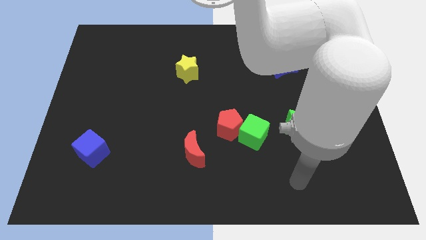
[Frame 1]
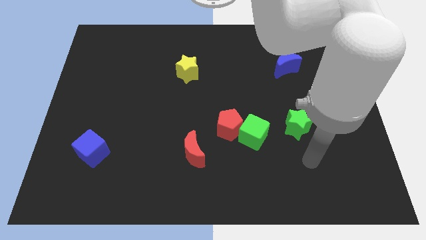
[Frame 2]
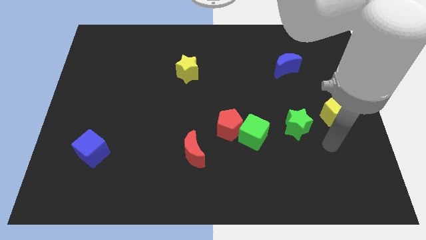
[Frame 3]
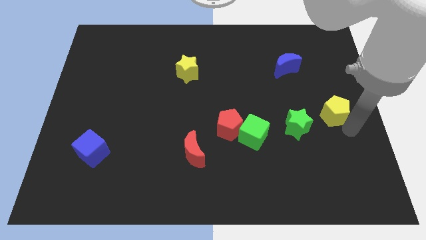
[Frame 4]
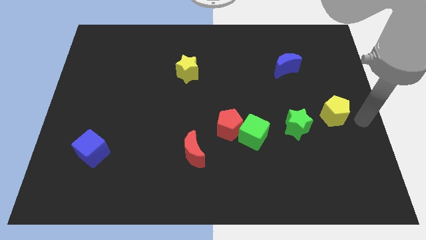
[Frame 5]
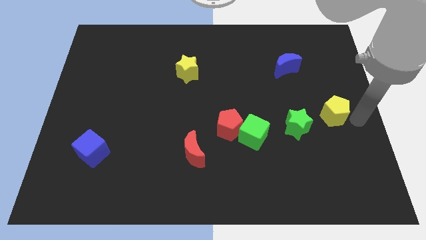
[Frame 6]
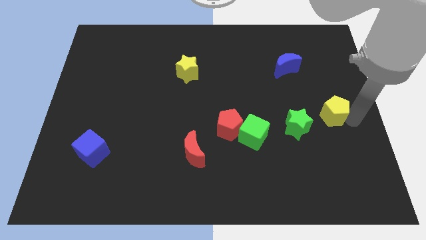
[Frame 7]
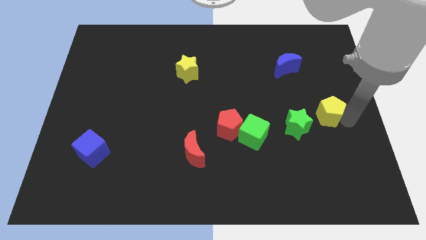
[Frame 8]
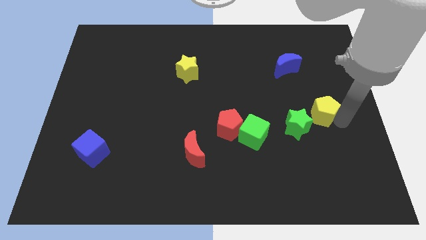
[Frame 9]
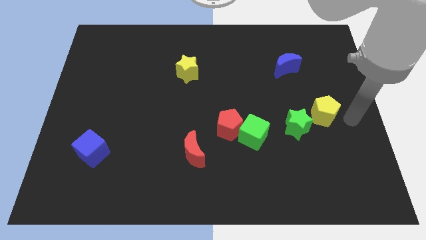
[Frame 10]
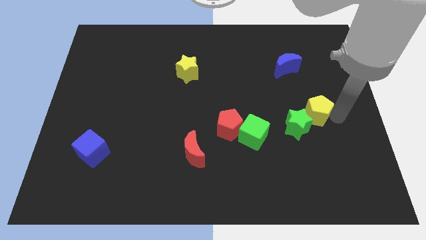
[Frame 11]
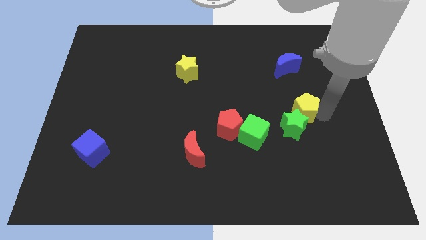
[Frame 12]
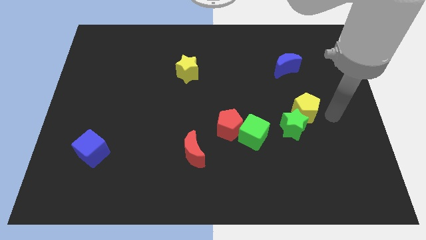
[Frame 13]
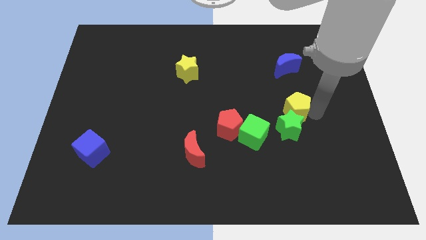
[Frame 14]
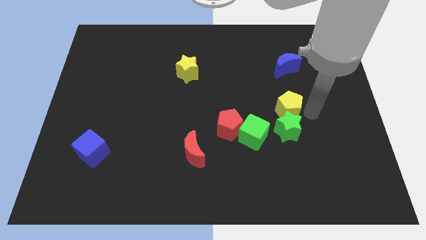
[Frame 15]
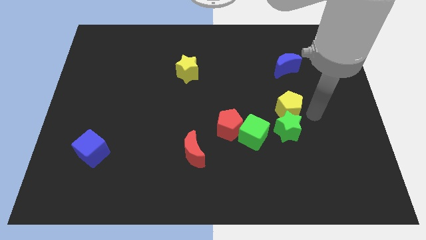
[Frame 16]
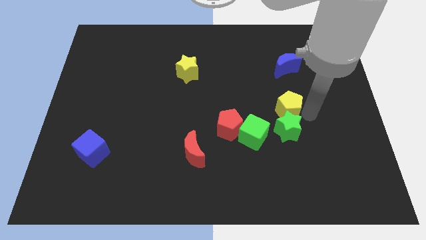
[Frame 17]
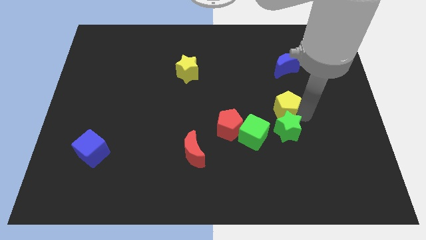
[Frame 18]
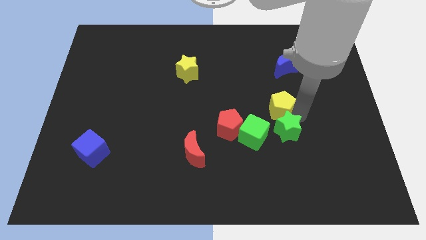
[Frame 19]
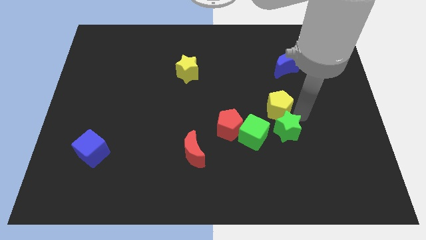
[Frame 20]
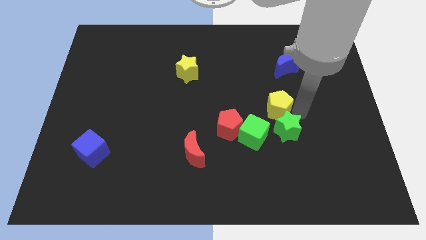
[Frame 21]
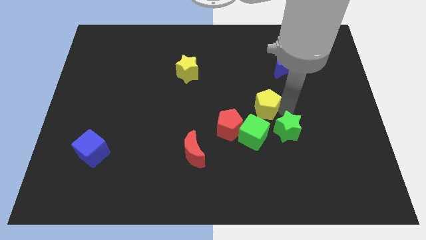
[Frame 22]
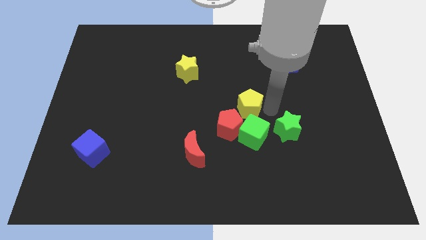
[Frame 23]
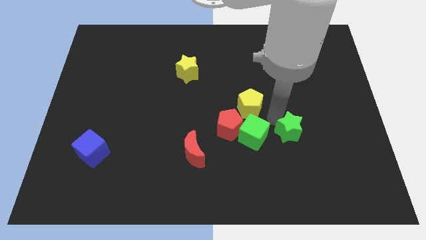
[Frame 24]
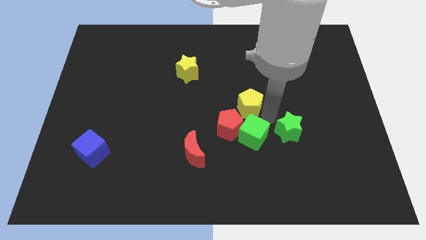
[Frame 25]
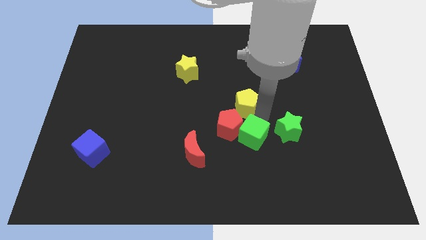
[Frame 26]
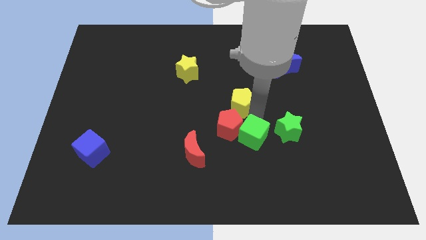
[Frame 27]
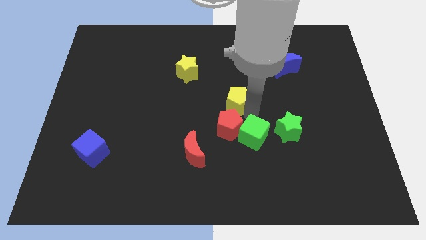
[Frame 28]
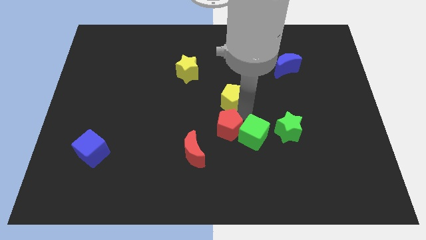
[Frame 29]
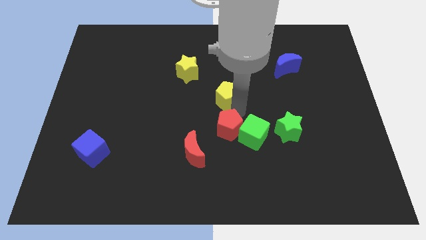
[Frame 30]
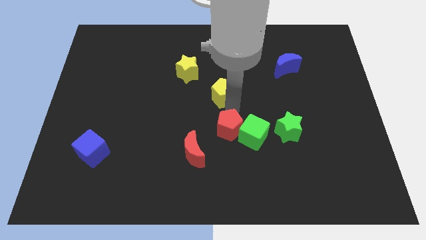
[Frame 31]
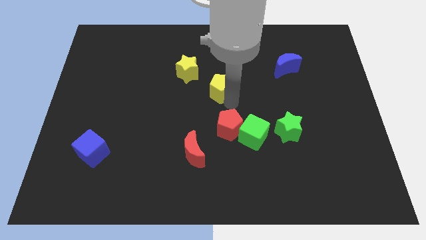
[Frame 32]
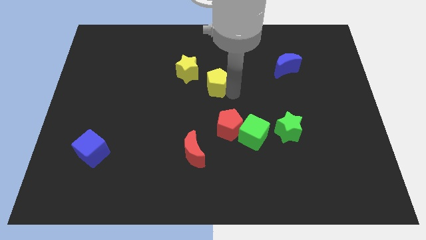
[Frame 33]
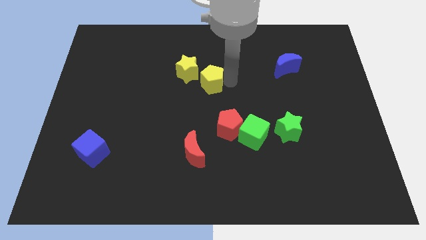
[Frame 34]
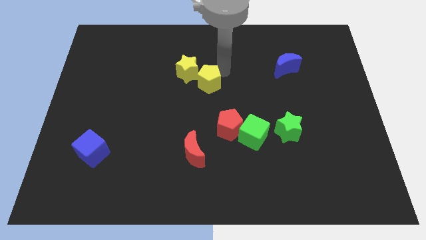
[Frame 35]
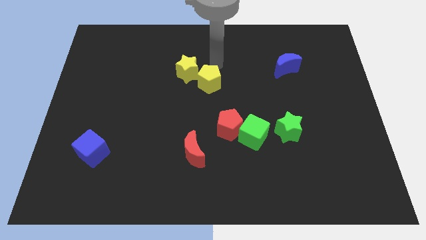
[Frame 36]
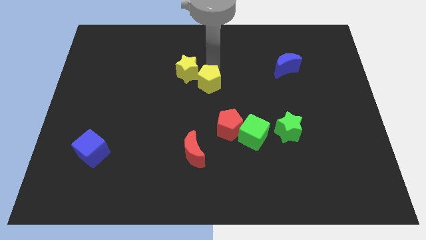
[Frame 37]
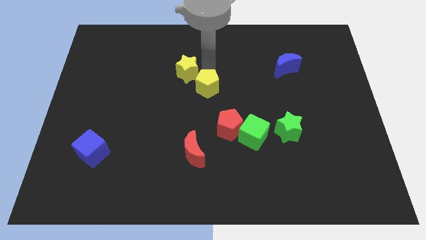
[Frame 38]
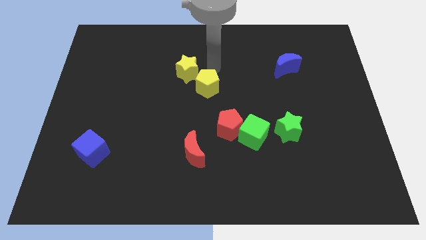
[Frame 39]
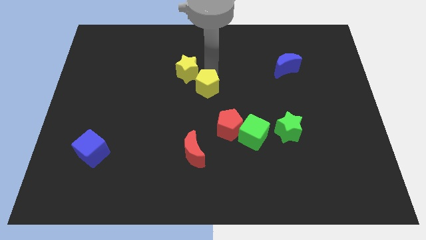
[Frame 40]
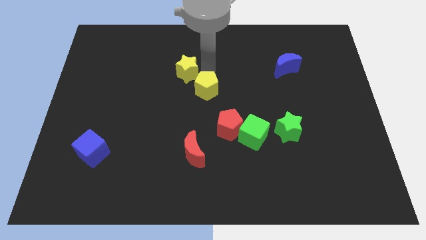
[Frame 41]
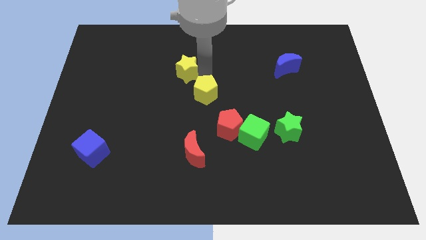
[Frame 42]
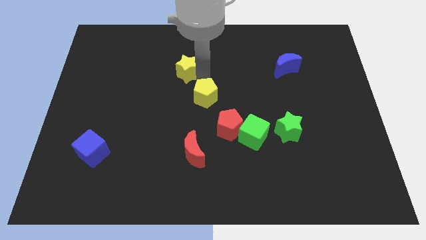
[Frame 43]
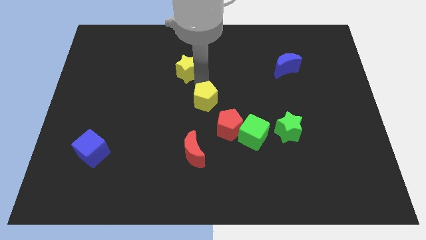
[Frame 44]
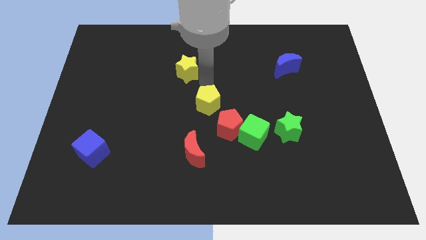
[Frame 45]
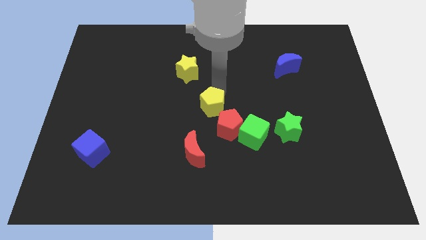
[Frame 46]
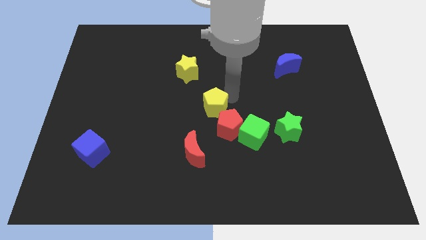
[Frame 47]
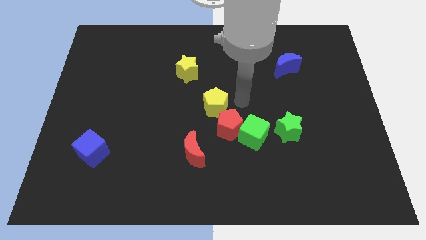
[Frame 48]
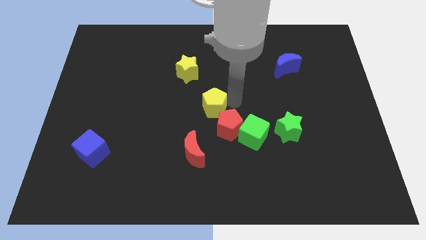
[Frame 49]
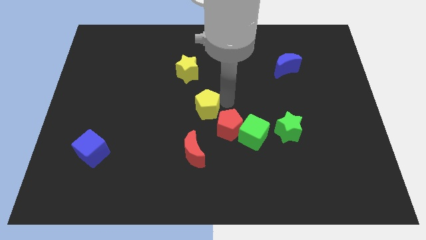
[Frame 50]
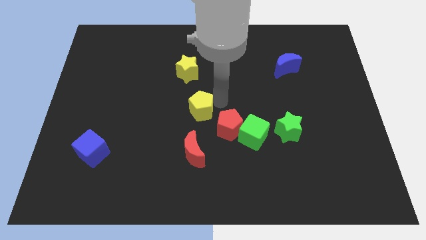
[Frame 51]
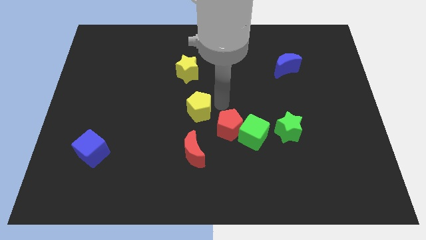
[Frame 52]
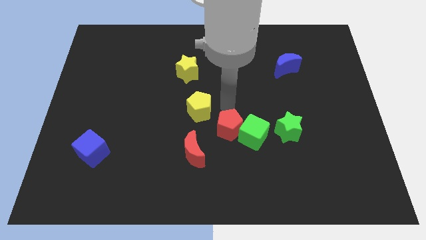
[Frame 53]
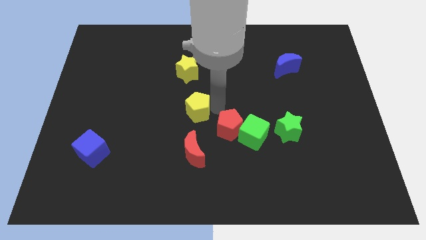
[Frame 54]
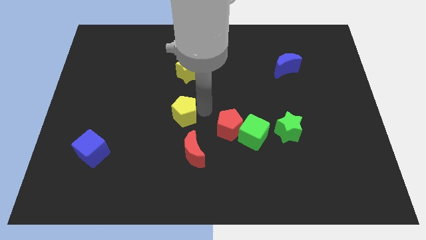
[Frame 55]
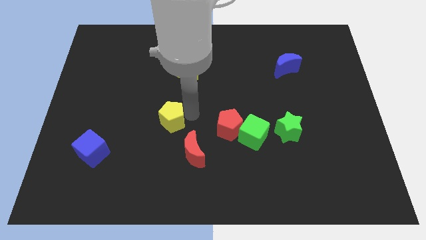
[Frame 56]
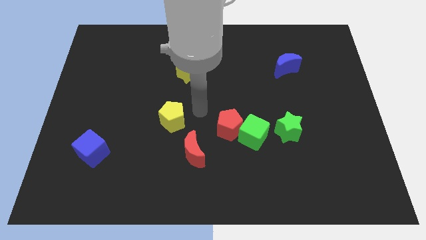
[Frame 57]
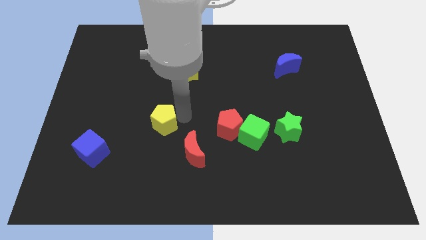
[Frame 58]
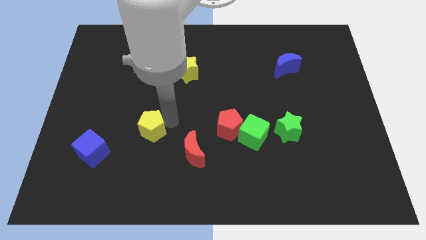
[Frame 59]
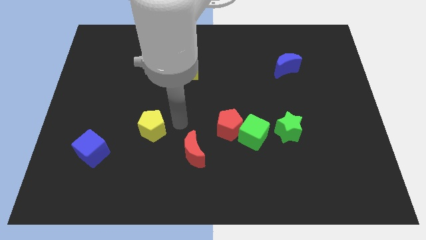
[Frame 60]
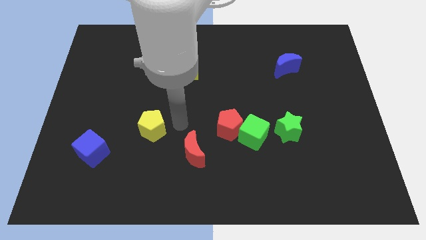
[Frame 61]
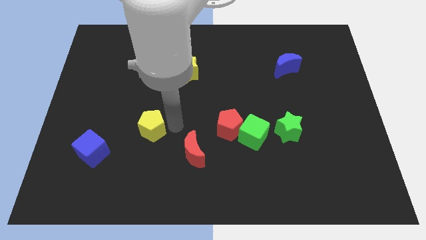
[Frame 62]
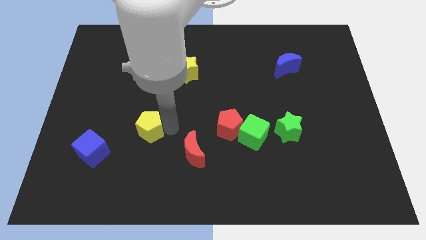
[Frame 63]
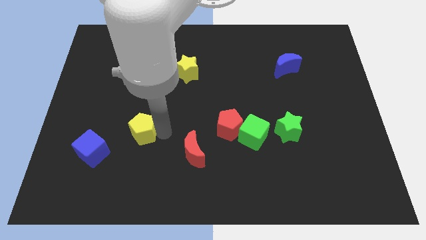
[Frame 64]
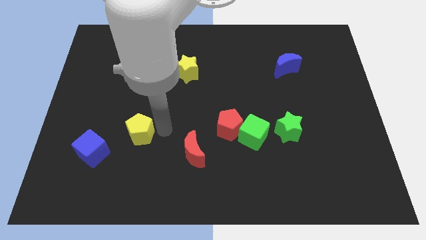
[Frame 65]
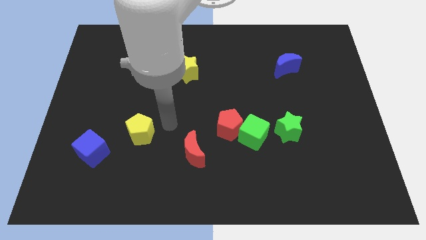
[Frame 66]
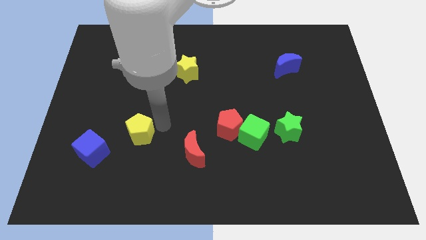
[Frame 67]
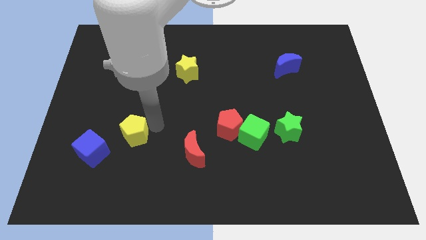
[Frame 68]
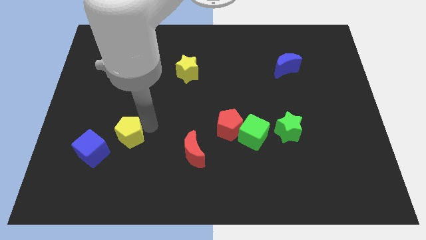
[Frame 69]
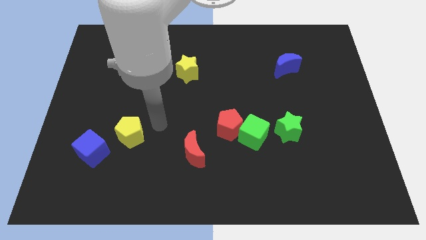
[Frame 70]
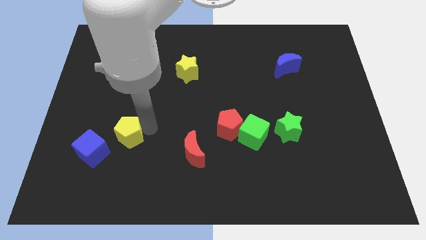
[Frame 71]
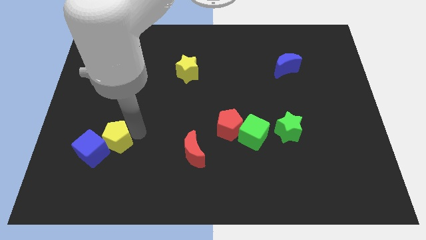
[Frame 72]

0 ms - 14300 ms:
push the yellow pentagon next to the blue cube
